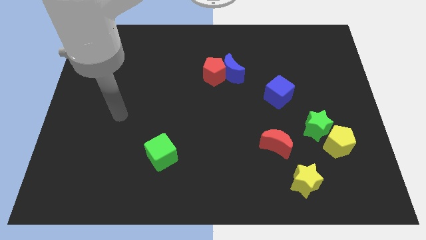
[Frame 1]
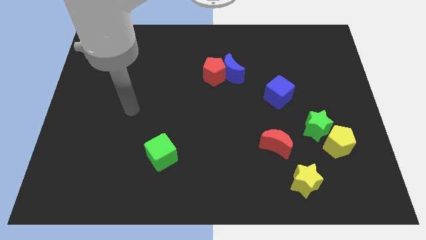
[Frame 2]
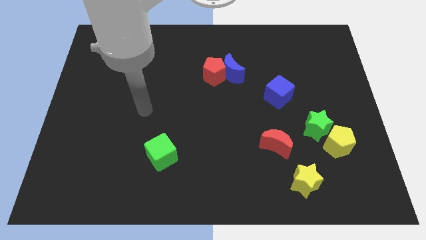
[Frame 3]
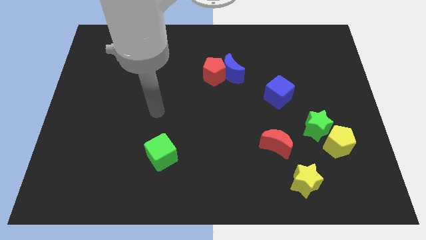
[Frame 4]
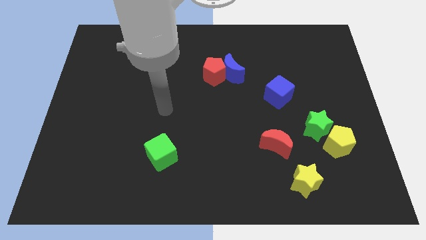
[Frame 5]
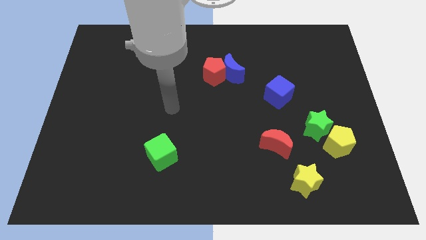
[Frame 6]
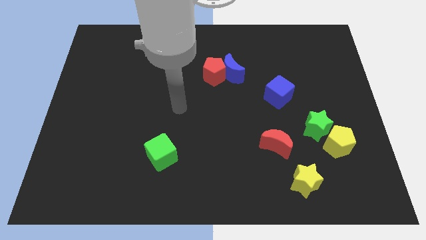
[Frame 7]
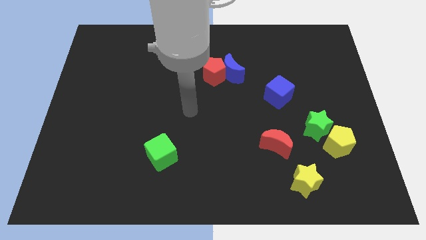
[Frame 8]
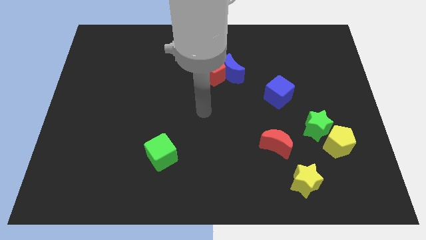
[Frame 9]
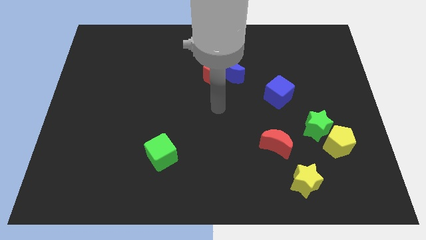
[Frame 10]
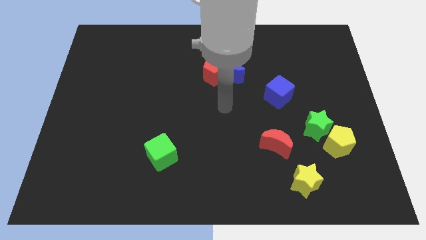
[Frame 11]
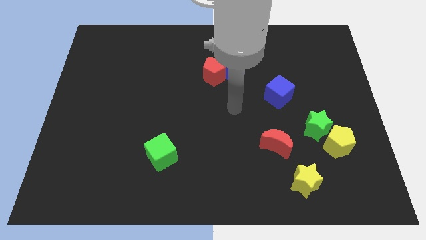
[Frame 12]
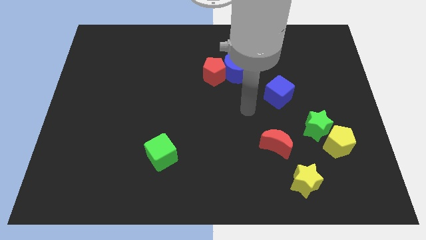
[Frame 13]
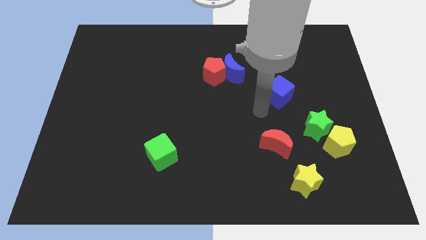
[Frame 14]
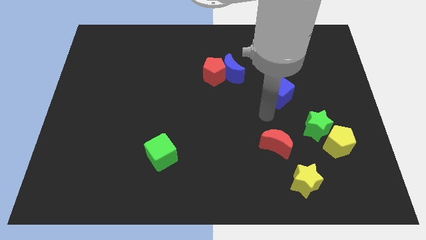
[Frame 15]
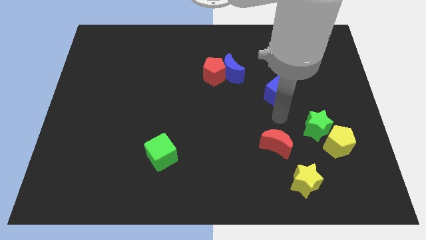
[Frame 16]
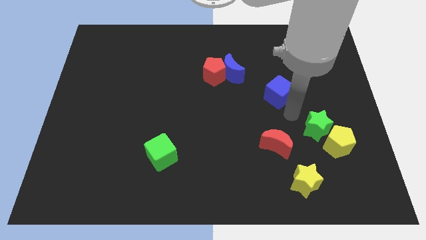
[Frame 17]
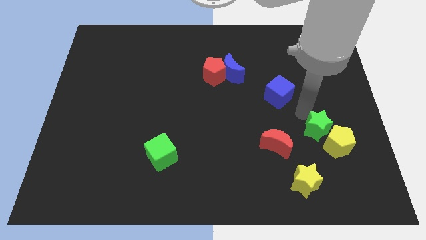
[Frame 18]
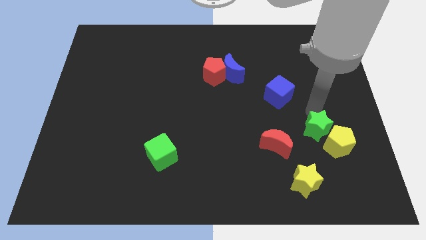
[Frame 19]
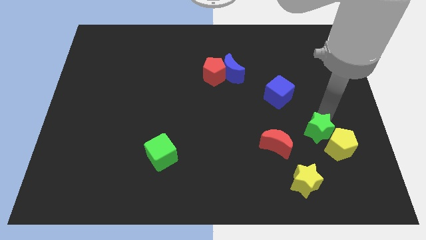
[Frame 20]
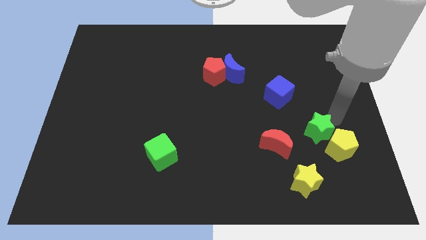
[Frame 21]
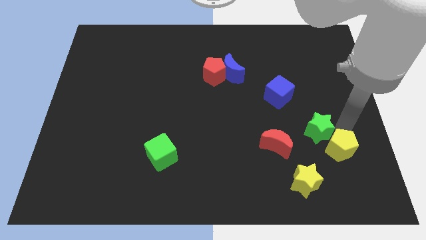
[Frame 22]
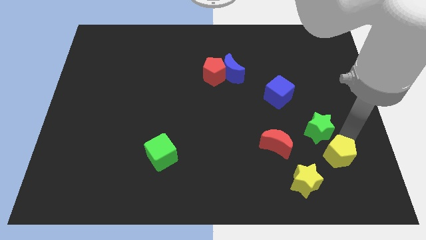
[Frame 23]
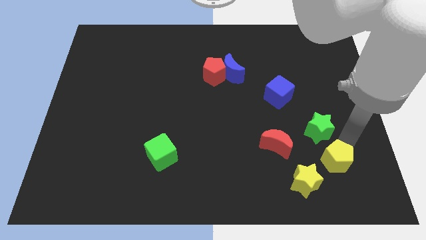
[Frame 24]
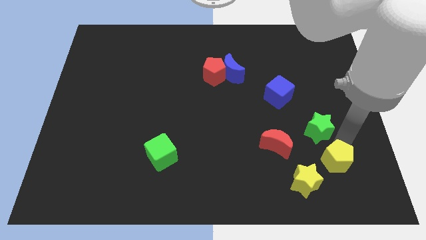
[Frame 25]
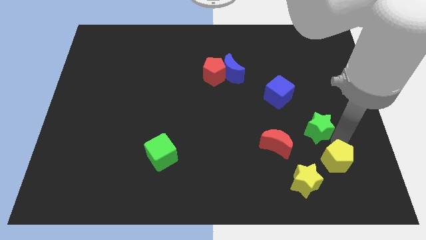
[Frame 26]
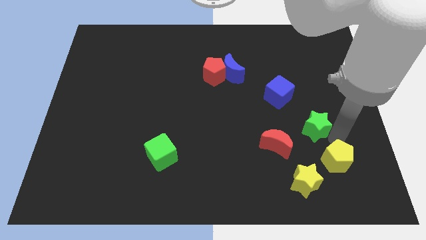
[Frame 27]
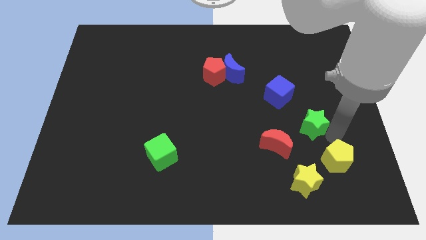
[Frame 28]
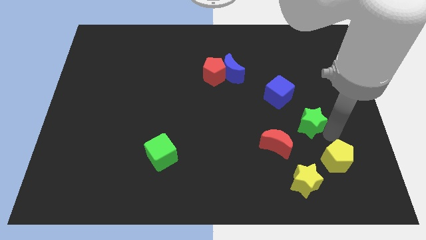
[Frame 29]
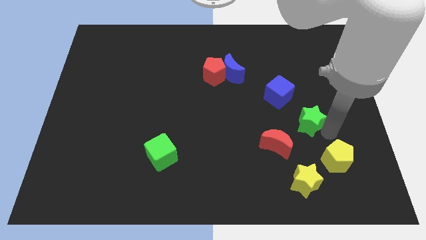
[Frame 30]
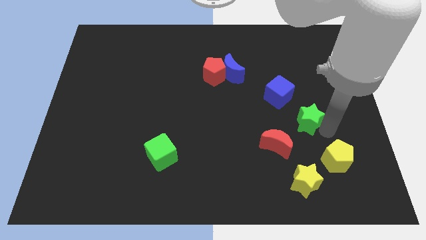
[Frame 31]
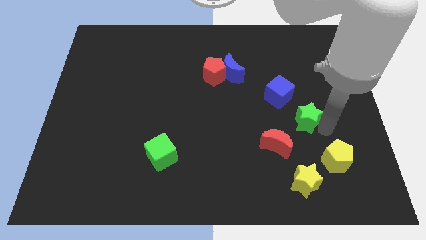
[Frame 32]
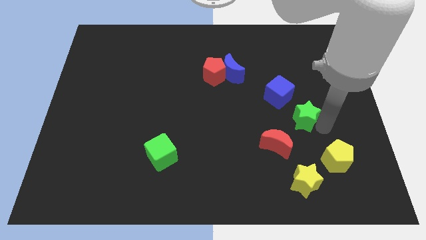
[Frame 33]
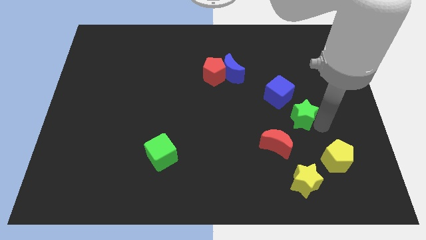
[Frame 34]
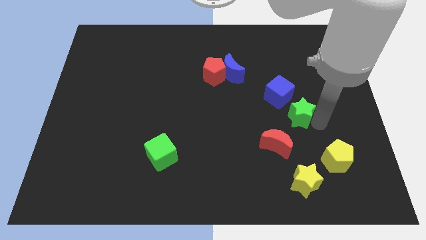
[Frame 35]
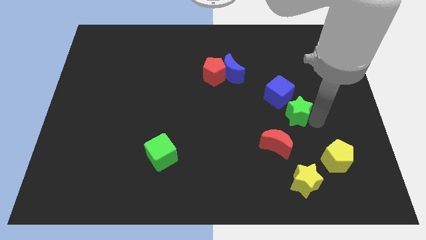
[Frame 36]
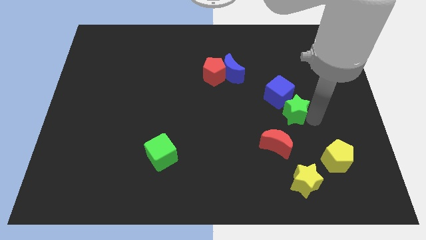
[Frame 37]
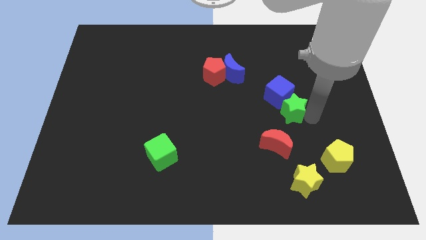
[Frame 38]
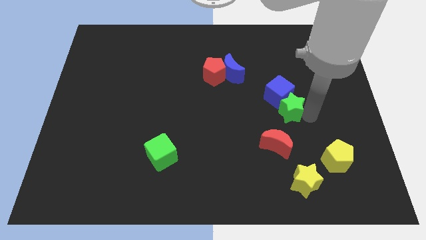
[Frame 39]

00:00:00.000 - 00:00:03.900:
slide the green star slightly upwards and then left

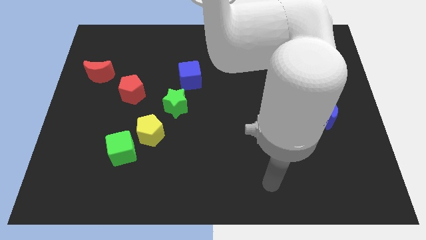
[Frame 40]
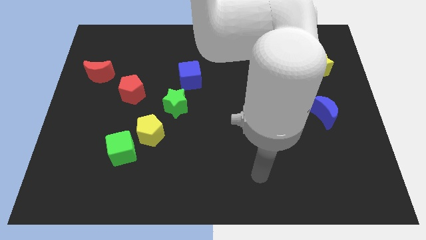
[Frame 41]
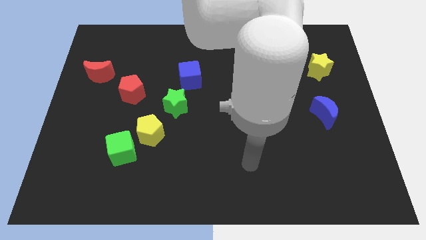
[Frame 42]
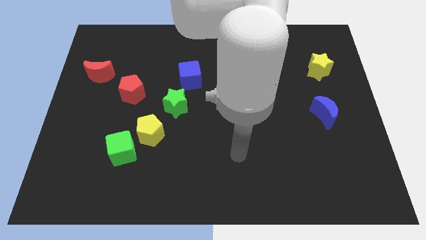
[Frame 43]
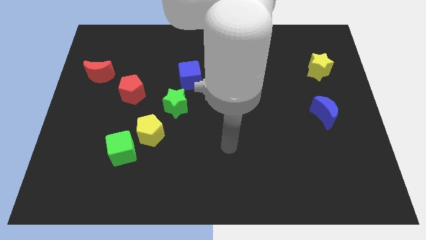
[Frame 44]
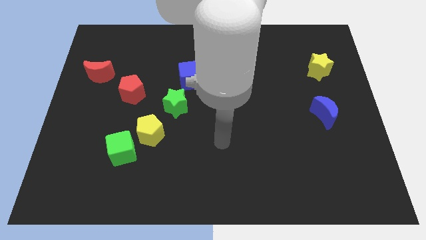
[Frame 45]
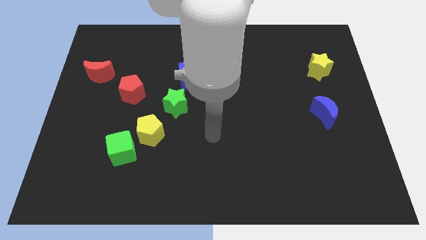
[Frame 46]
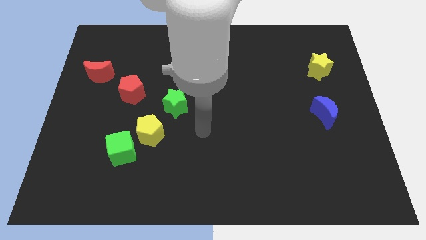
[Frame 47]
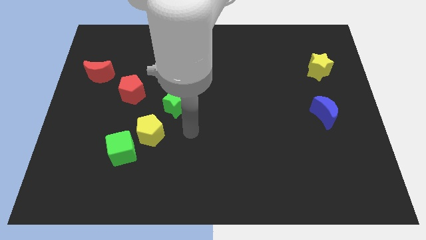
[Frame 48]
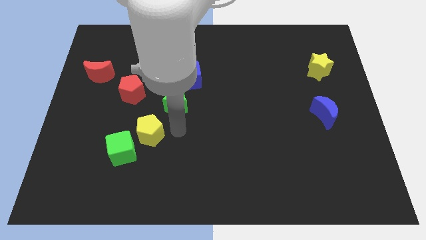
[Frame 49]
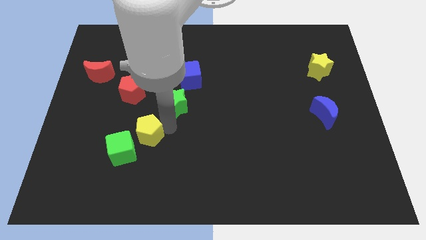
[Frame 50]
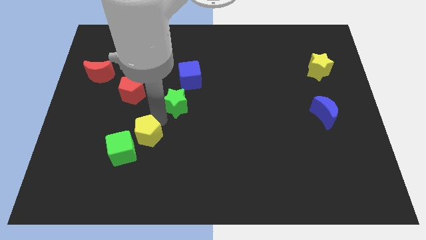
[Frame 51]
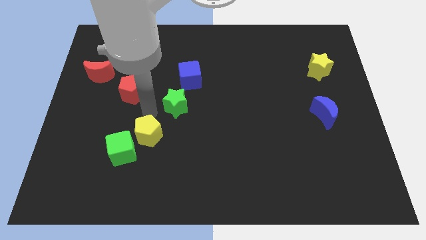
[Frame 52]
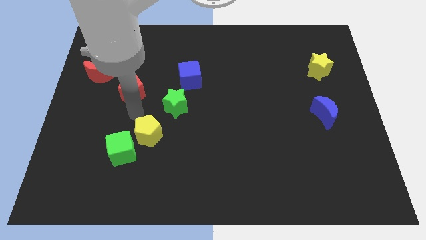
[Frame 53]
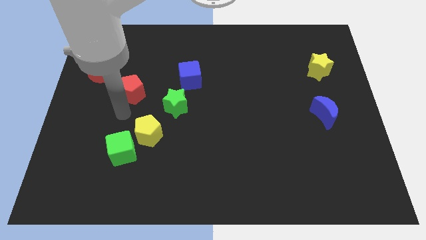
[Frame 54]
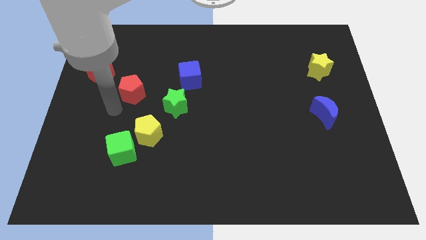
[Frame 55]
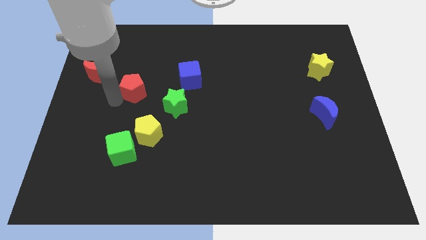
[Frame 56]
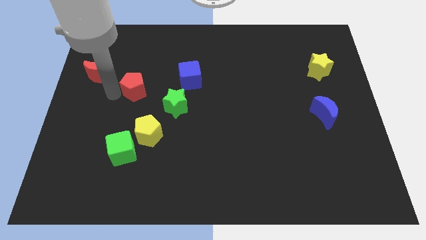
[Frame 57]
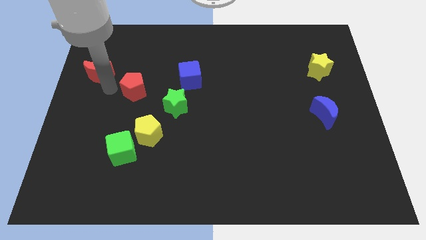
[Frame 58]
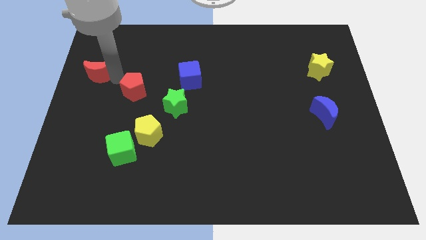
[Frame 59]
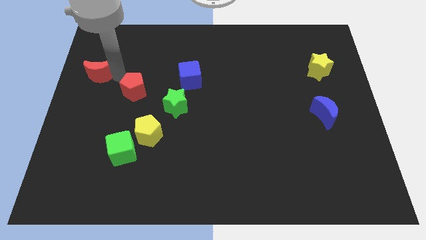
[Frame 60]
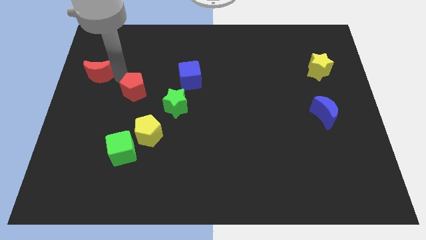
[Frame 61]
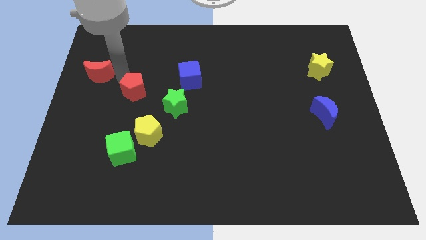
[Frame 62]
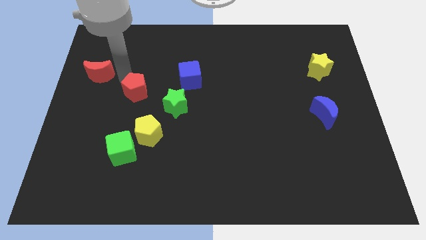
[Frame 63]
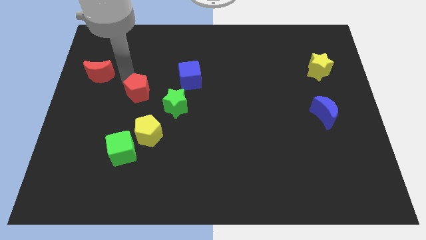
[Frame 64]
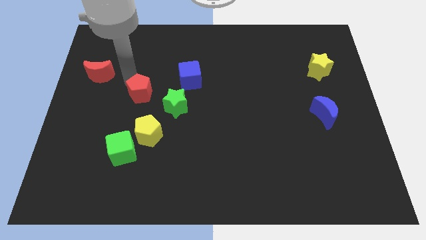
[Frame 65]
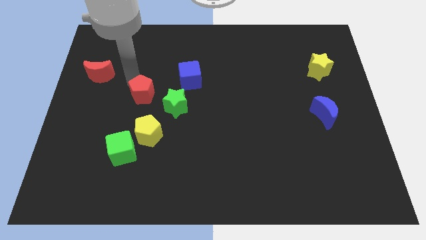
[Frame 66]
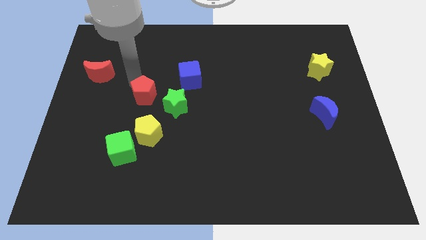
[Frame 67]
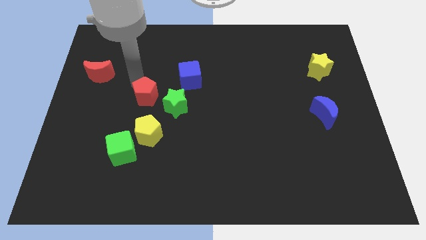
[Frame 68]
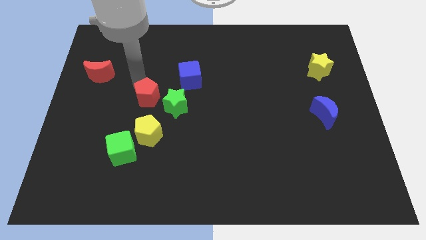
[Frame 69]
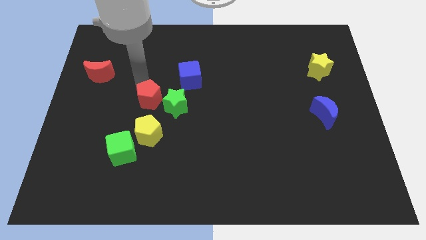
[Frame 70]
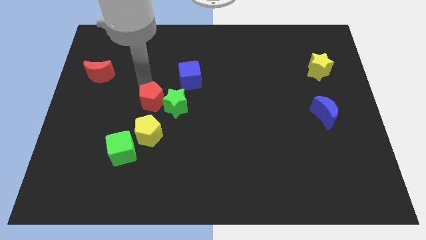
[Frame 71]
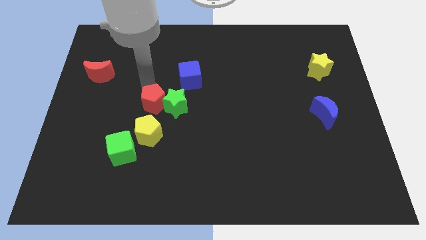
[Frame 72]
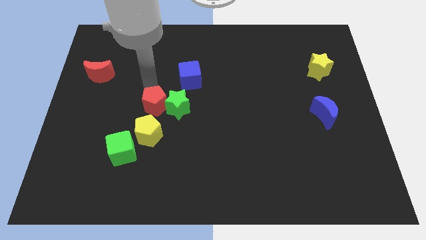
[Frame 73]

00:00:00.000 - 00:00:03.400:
push the red pentagon a little bit downwards and to the right

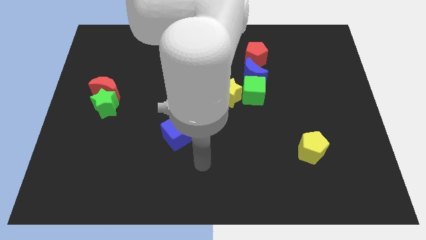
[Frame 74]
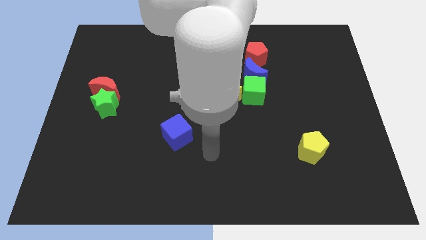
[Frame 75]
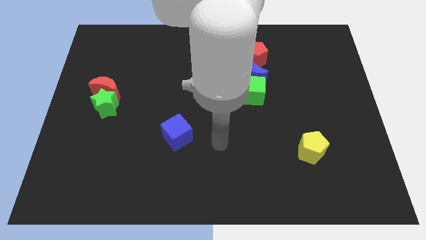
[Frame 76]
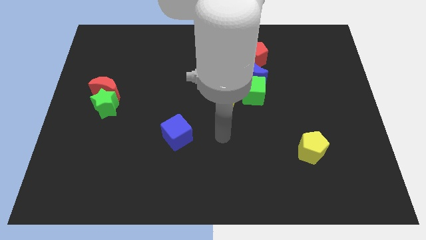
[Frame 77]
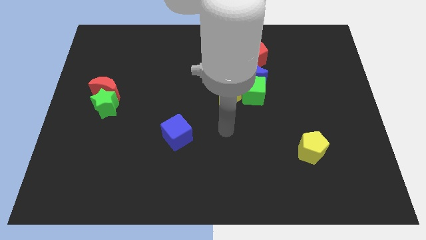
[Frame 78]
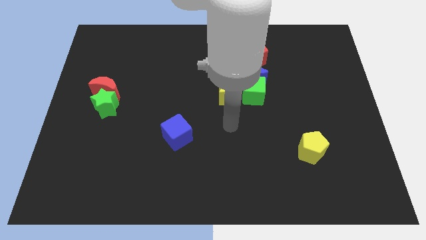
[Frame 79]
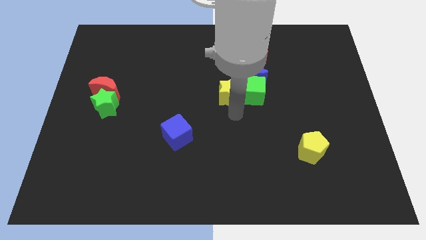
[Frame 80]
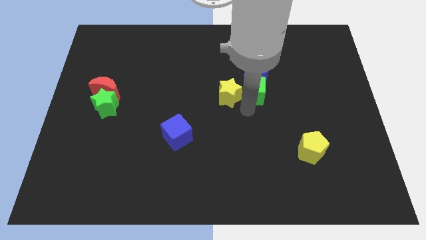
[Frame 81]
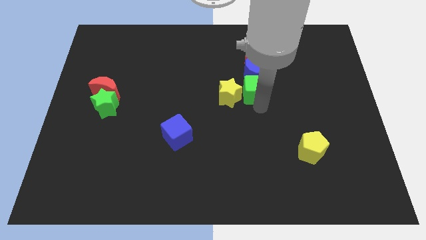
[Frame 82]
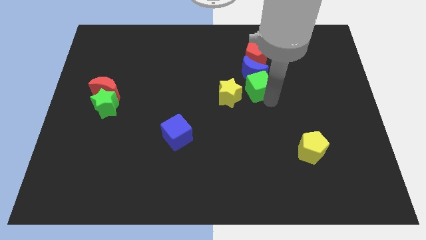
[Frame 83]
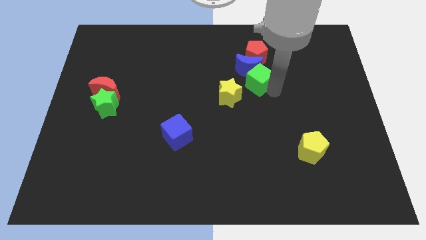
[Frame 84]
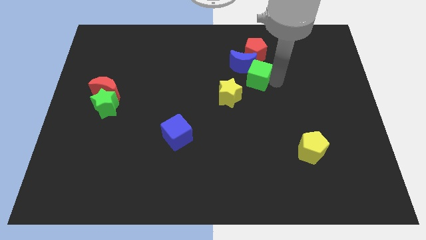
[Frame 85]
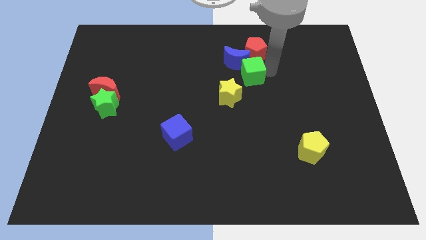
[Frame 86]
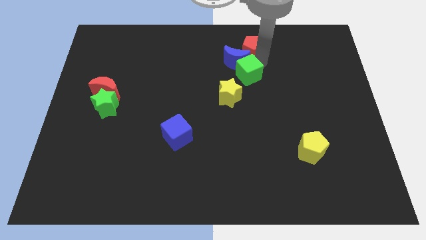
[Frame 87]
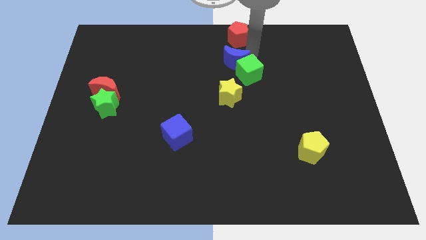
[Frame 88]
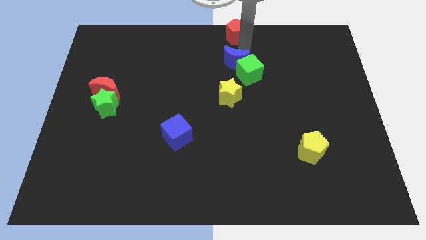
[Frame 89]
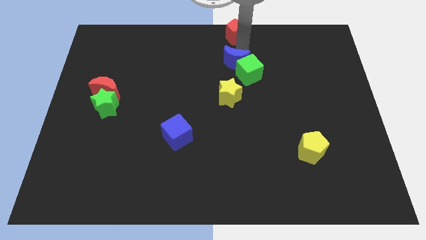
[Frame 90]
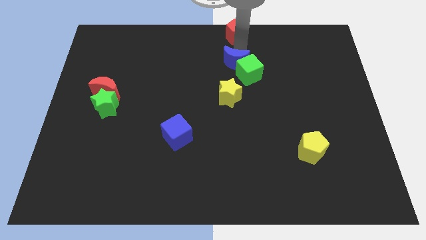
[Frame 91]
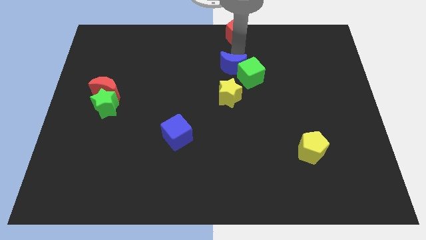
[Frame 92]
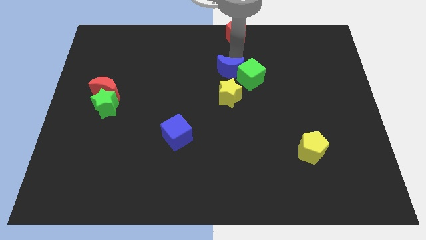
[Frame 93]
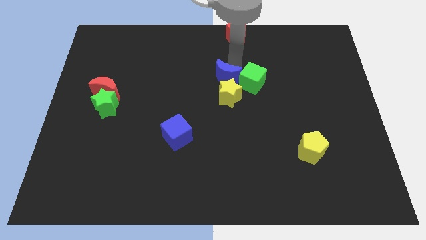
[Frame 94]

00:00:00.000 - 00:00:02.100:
slide the blue moon a little bit left
